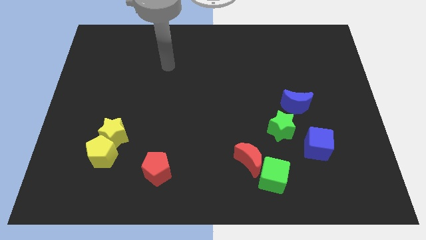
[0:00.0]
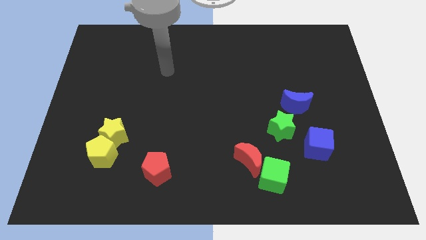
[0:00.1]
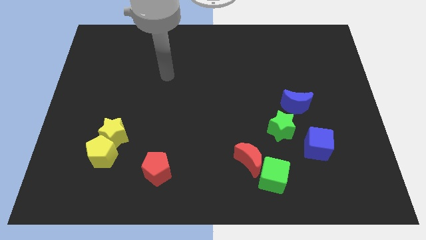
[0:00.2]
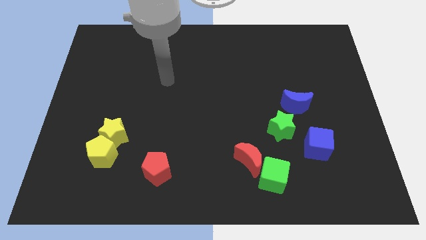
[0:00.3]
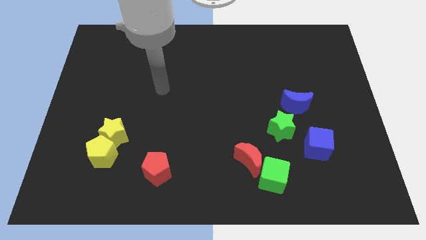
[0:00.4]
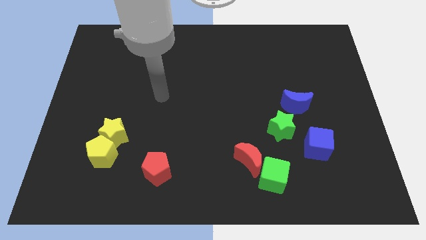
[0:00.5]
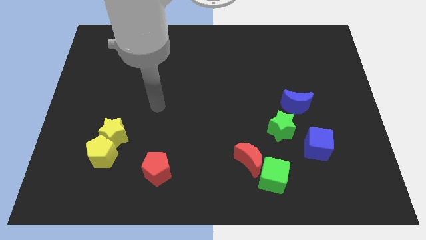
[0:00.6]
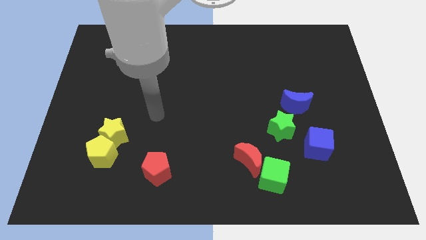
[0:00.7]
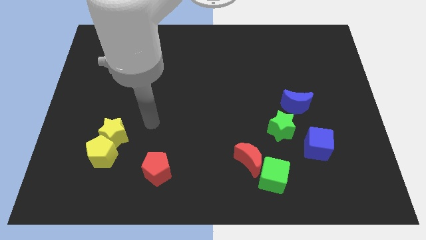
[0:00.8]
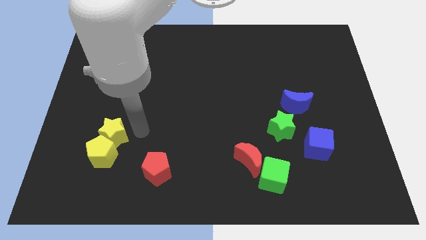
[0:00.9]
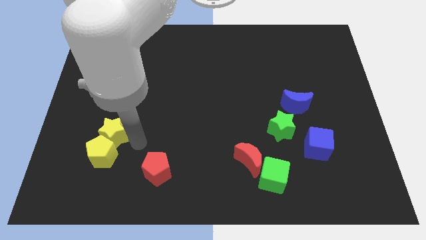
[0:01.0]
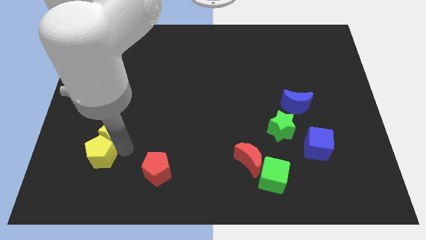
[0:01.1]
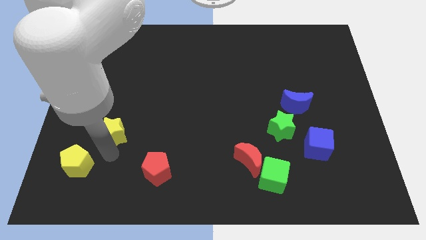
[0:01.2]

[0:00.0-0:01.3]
pull the yellow star apart from the yellow pentagon

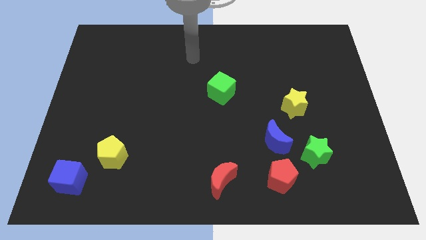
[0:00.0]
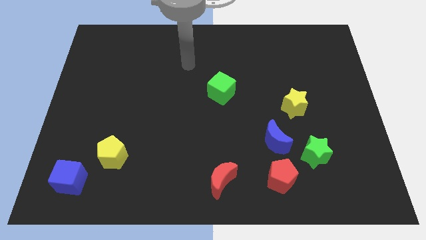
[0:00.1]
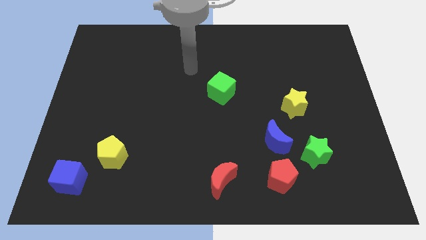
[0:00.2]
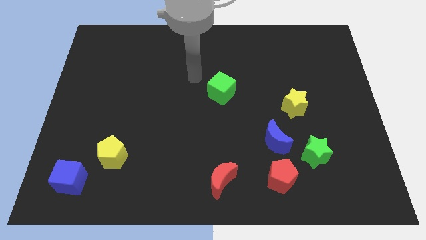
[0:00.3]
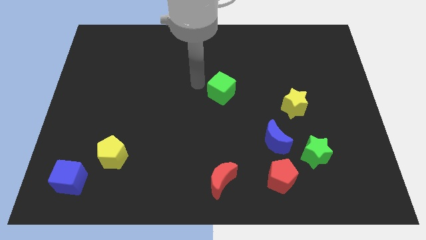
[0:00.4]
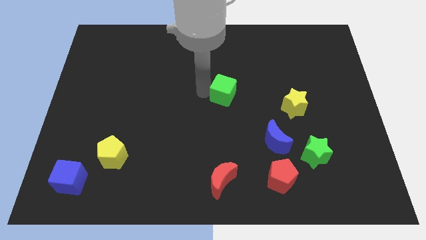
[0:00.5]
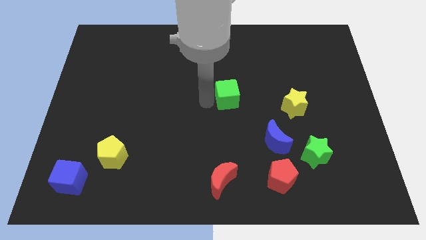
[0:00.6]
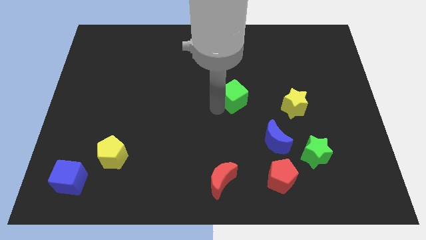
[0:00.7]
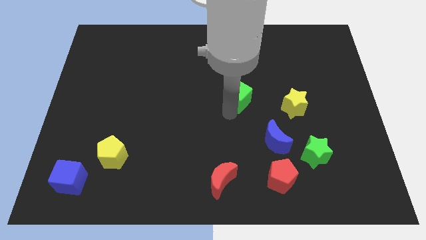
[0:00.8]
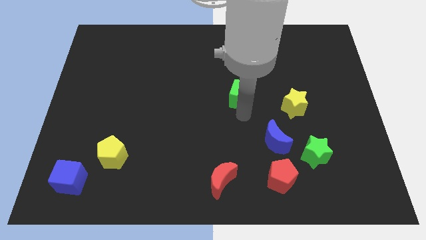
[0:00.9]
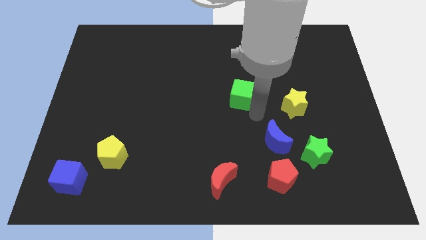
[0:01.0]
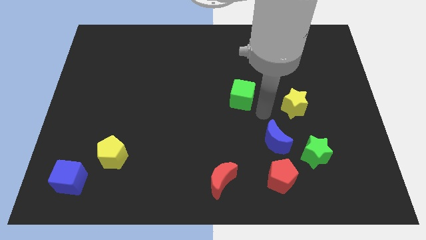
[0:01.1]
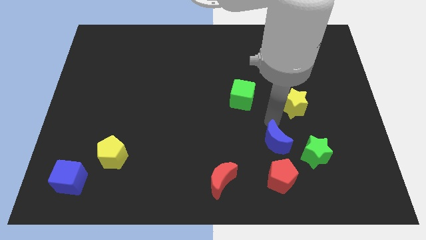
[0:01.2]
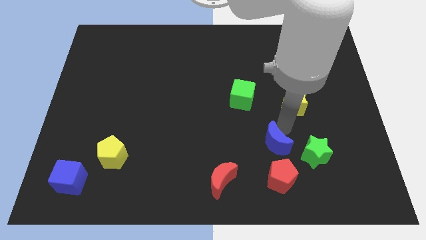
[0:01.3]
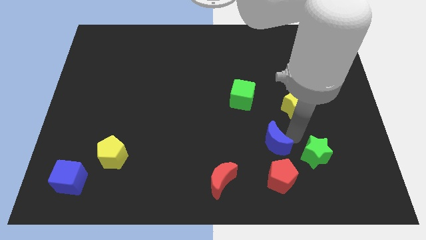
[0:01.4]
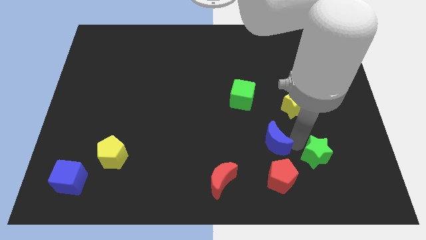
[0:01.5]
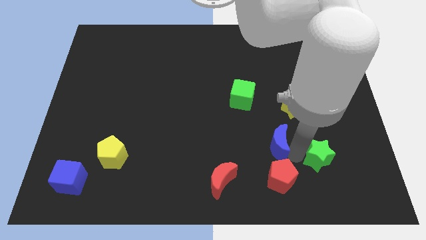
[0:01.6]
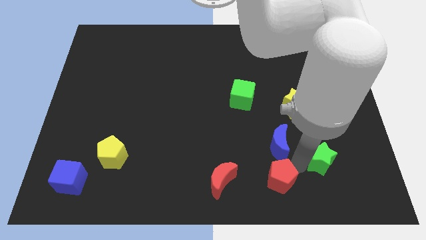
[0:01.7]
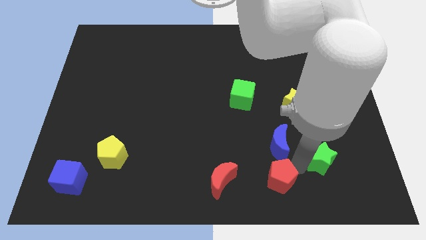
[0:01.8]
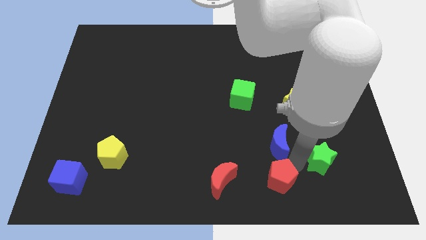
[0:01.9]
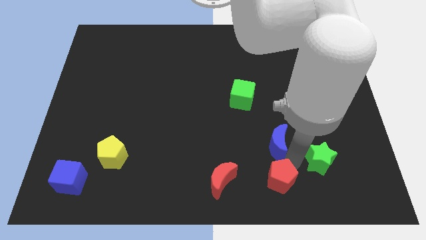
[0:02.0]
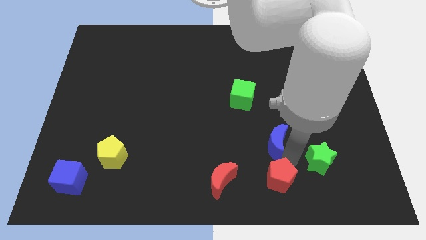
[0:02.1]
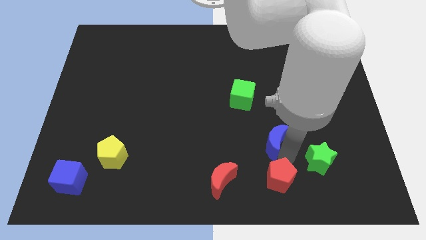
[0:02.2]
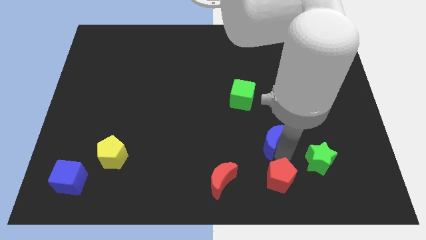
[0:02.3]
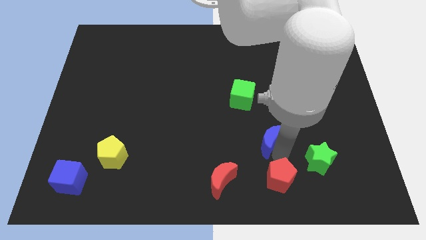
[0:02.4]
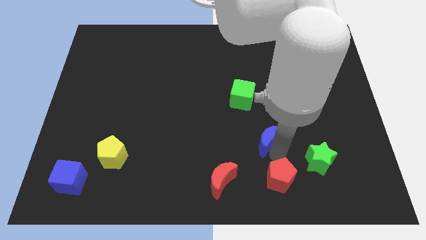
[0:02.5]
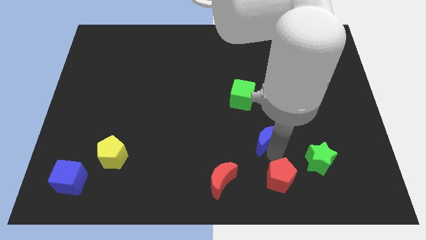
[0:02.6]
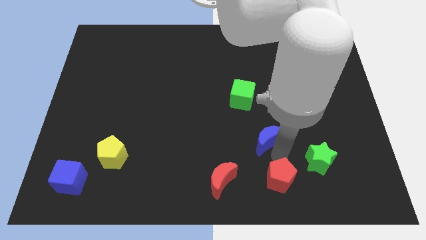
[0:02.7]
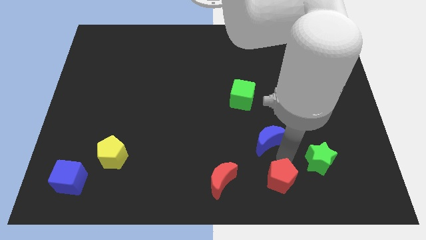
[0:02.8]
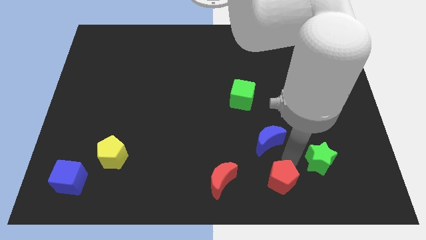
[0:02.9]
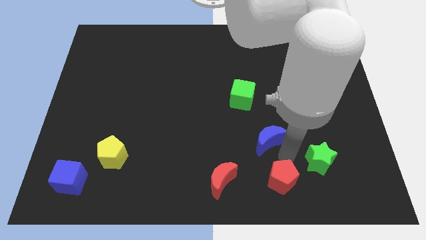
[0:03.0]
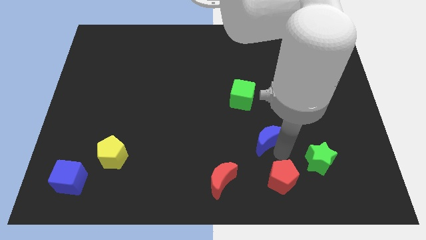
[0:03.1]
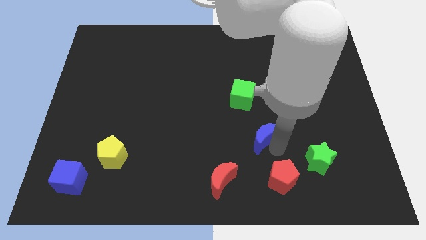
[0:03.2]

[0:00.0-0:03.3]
separate the blue moon from the green star and red pentagon

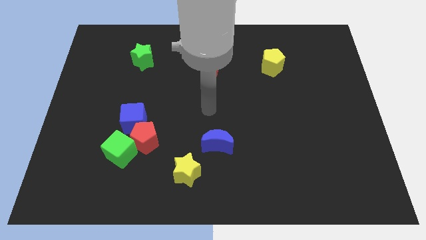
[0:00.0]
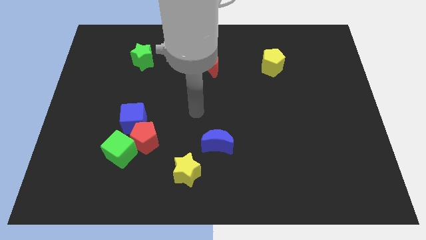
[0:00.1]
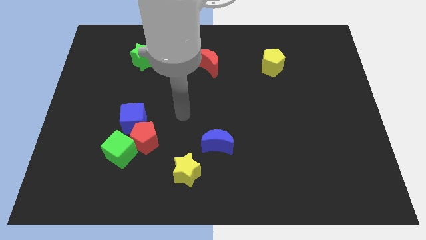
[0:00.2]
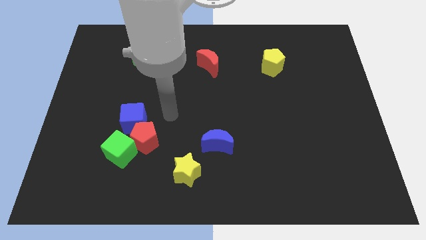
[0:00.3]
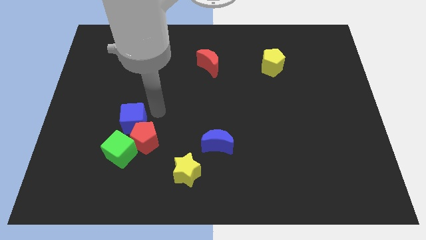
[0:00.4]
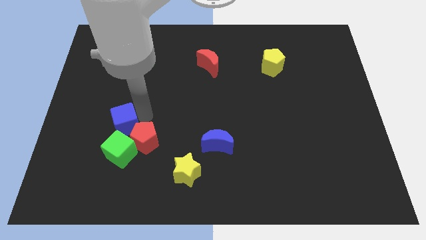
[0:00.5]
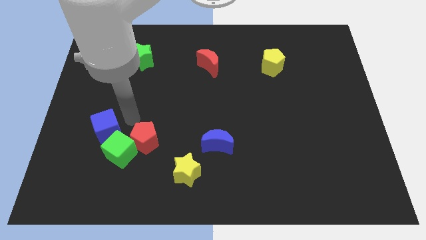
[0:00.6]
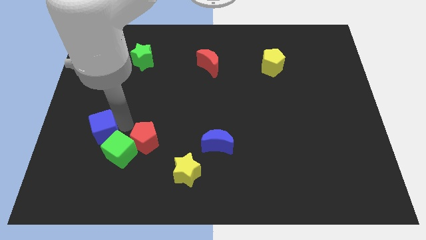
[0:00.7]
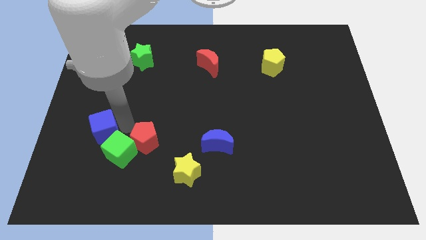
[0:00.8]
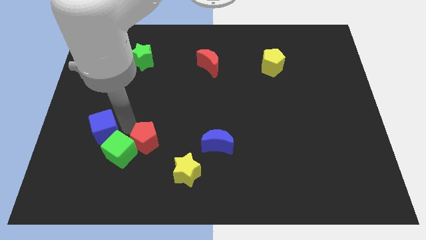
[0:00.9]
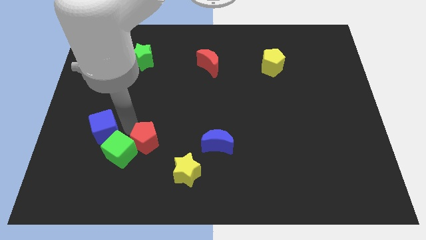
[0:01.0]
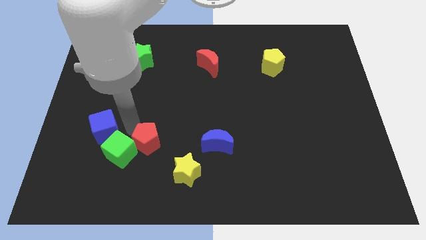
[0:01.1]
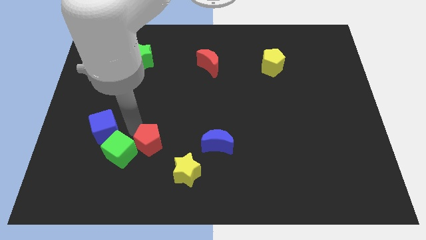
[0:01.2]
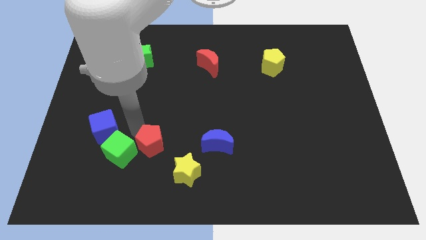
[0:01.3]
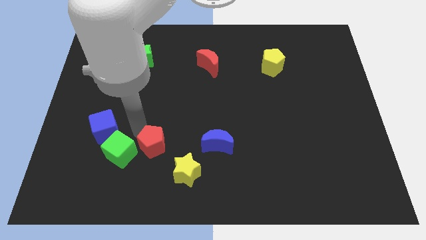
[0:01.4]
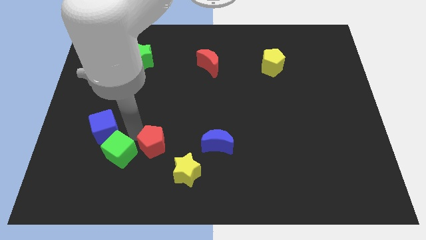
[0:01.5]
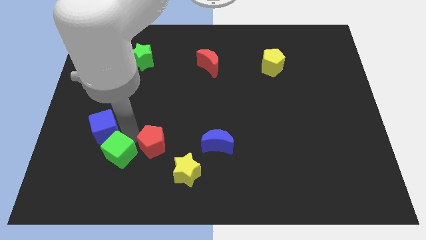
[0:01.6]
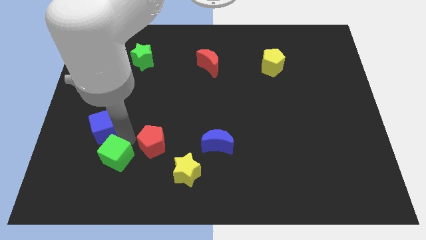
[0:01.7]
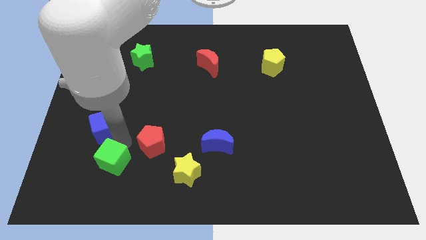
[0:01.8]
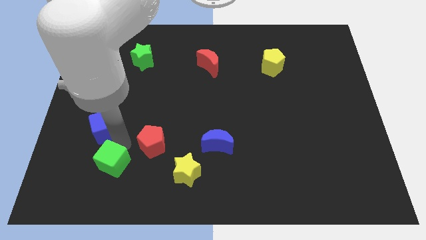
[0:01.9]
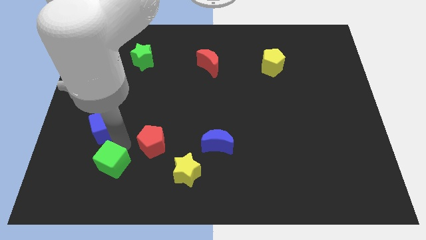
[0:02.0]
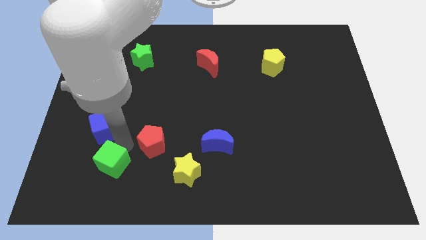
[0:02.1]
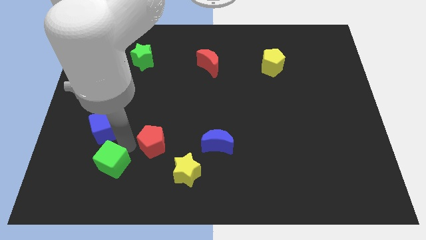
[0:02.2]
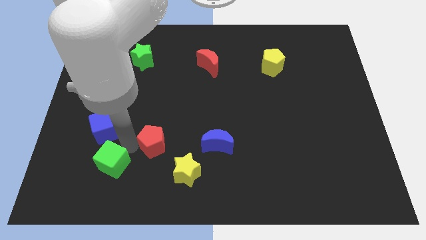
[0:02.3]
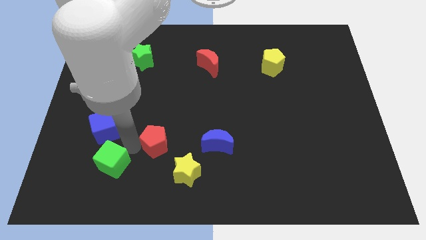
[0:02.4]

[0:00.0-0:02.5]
pull the red pentagon apart from the green cube and blue cube

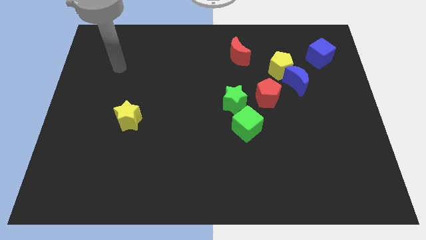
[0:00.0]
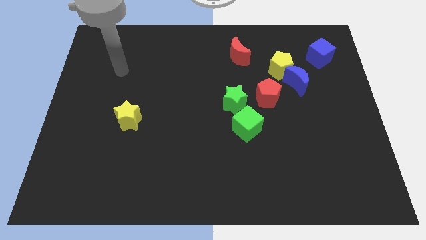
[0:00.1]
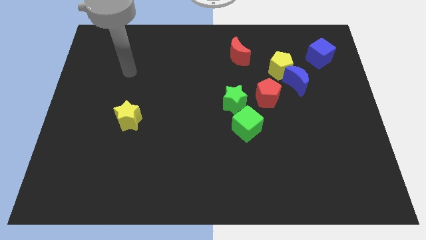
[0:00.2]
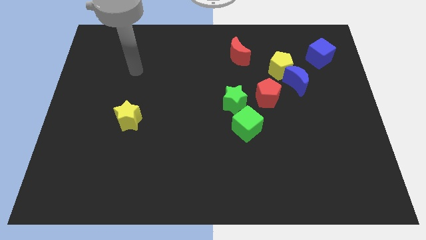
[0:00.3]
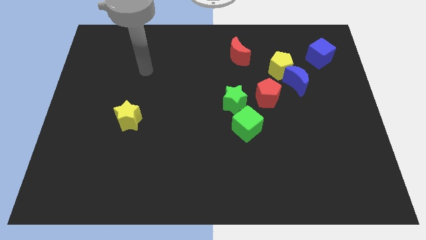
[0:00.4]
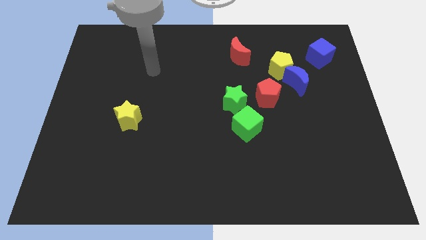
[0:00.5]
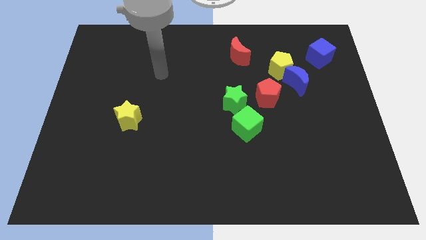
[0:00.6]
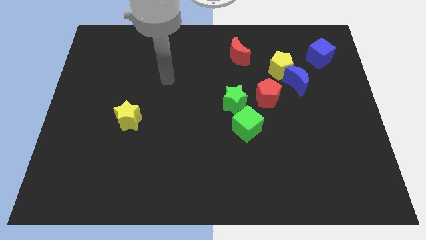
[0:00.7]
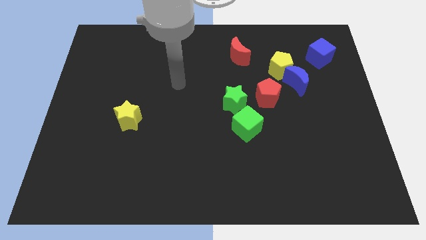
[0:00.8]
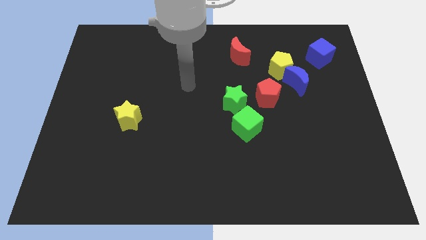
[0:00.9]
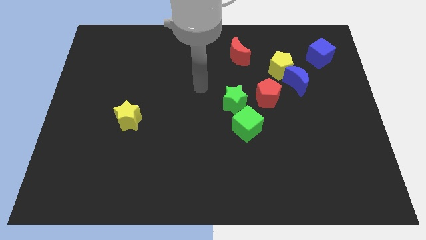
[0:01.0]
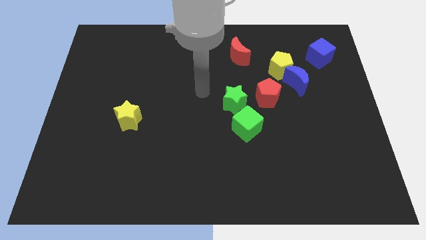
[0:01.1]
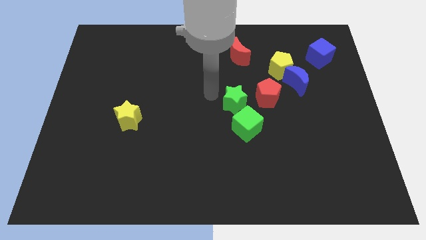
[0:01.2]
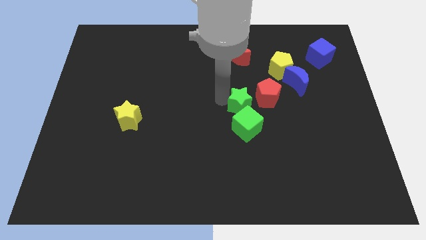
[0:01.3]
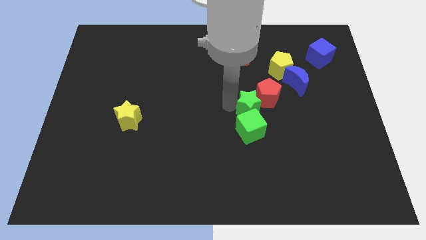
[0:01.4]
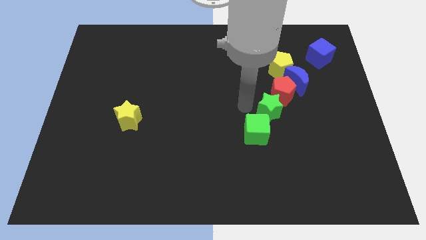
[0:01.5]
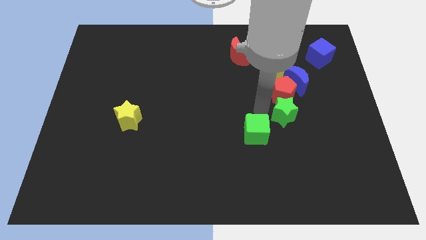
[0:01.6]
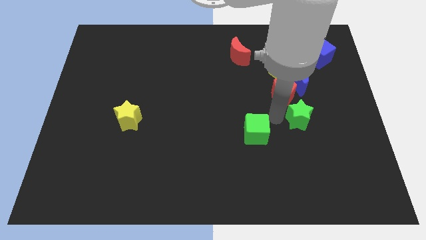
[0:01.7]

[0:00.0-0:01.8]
move the green cube away from the green star

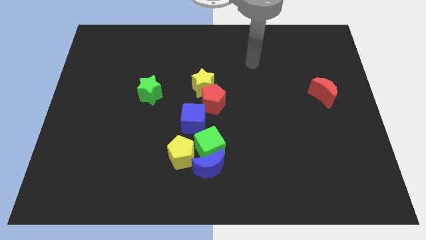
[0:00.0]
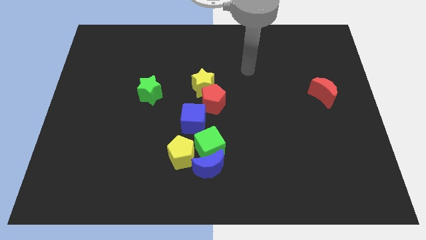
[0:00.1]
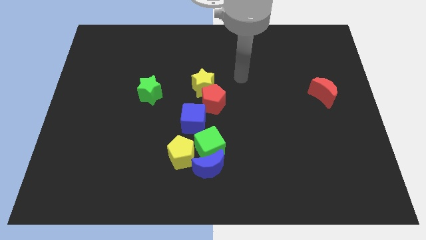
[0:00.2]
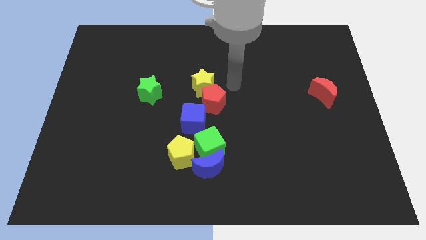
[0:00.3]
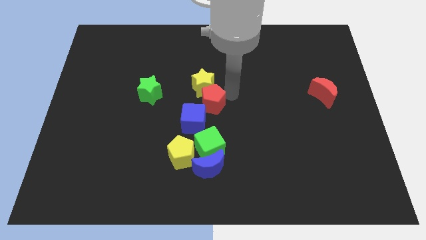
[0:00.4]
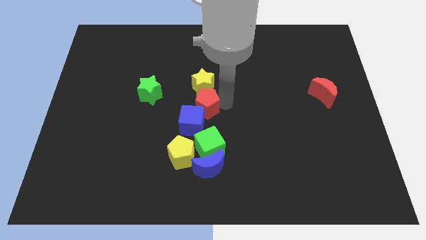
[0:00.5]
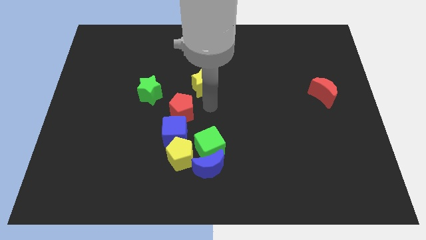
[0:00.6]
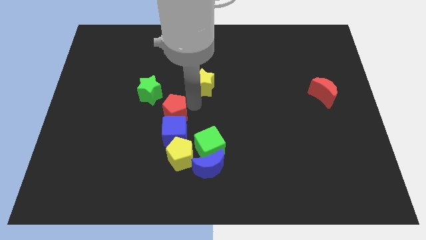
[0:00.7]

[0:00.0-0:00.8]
separate the yellow star from the red pentagon
